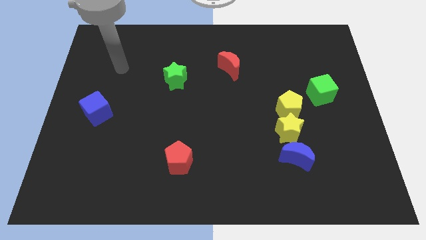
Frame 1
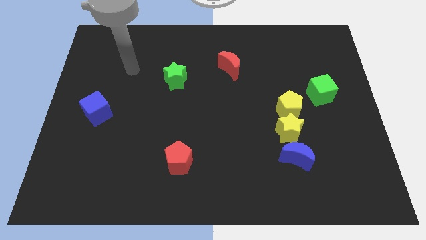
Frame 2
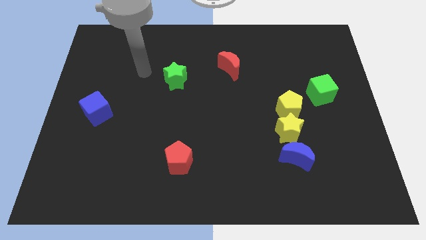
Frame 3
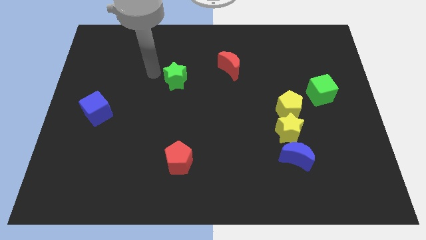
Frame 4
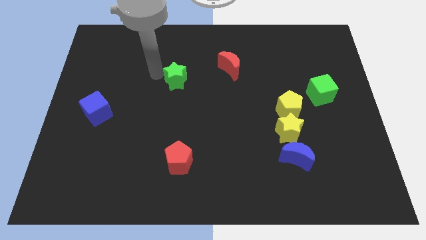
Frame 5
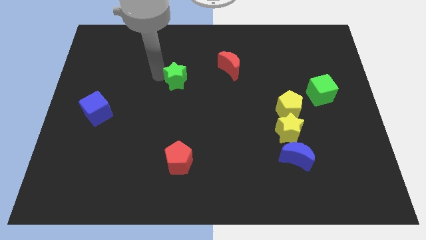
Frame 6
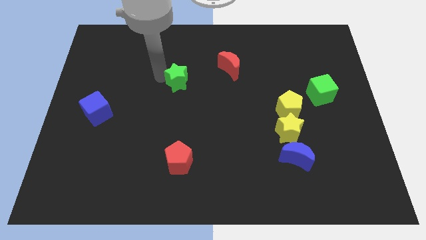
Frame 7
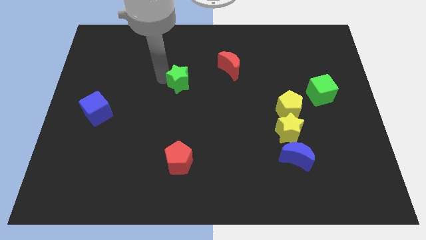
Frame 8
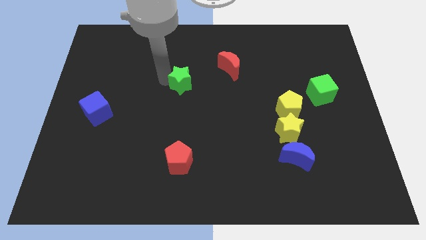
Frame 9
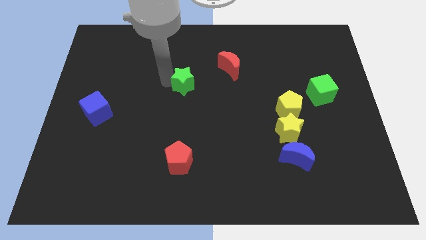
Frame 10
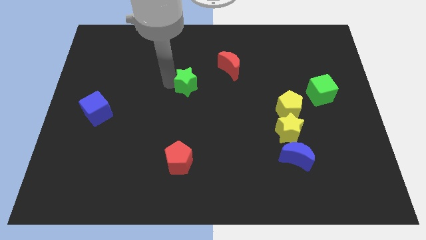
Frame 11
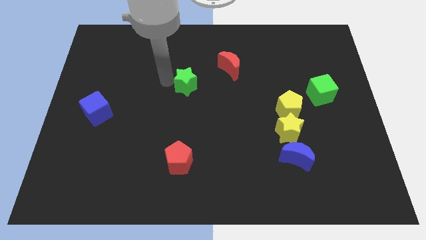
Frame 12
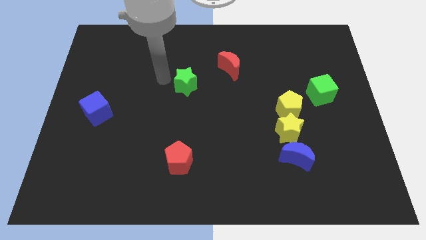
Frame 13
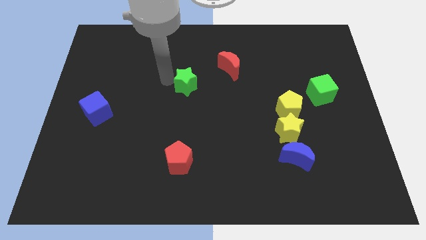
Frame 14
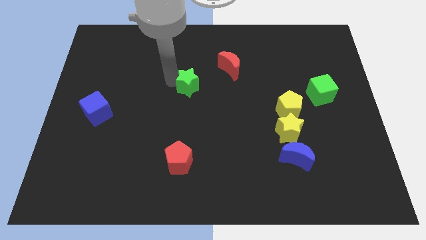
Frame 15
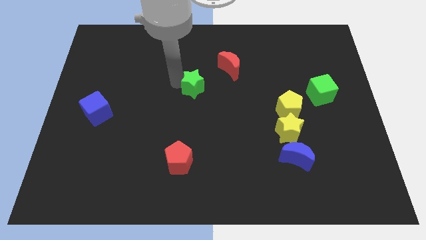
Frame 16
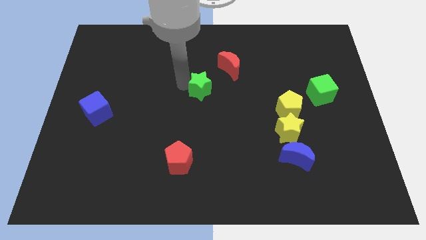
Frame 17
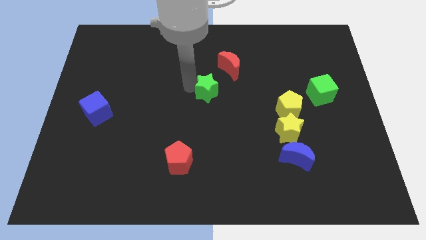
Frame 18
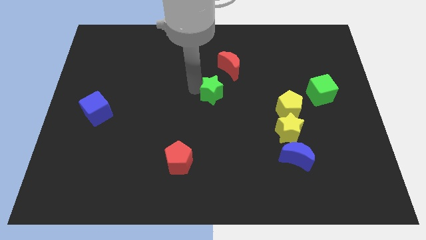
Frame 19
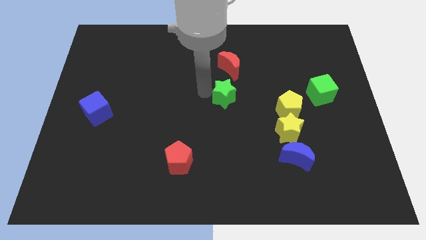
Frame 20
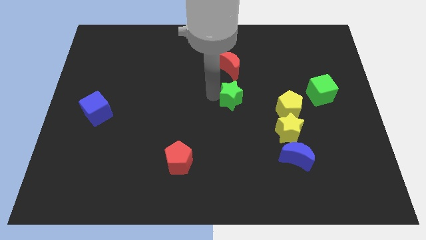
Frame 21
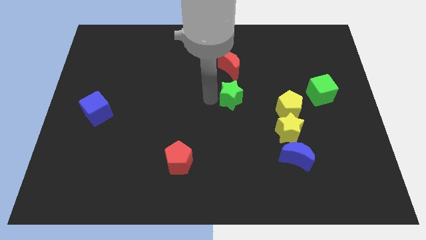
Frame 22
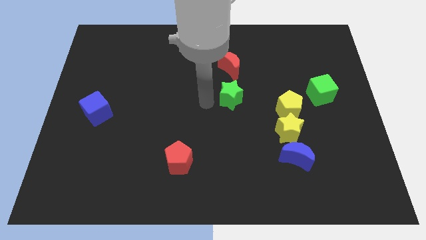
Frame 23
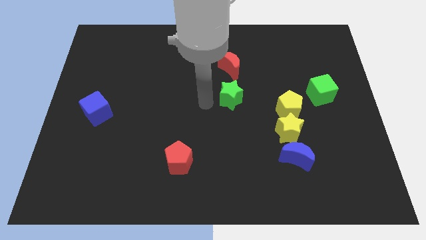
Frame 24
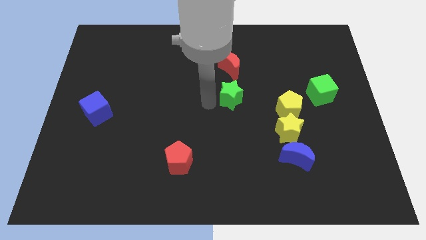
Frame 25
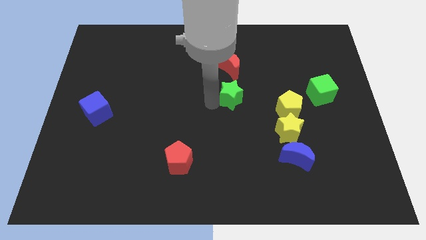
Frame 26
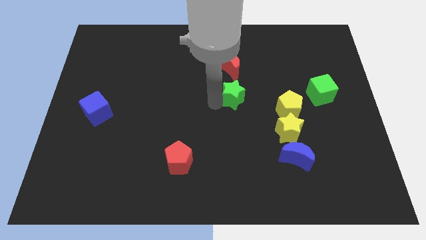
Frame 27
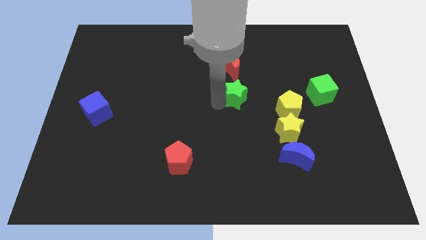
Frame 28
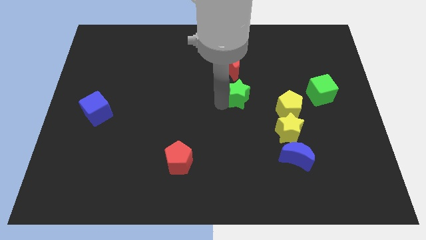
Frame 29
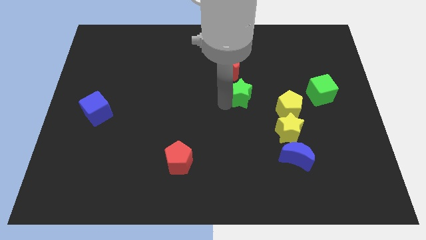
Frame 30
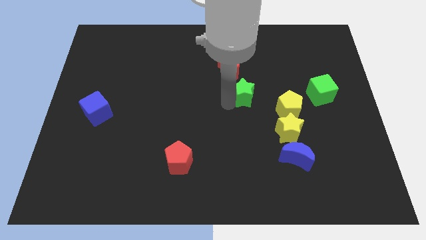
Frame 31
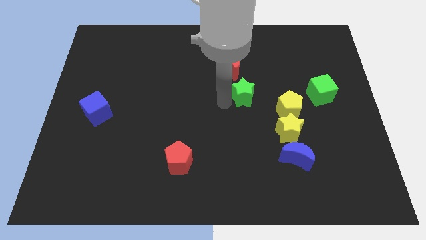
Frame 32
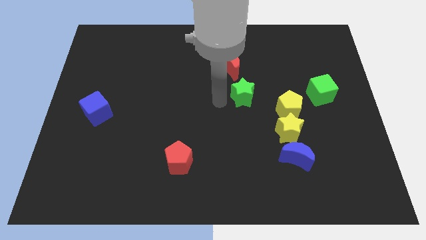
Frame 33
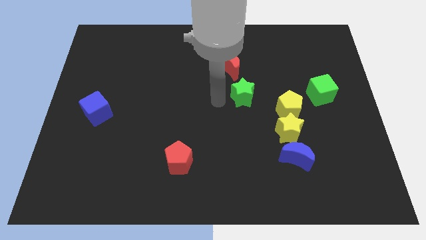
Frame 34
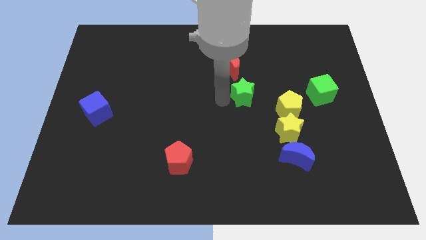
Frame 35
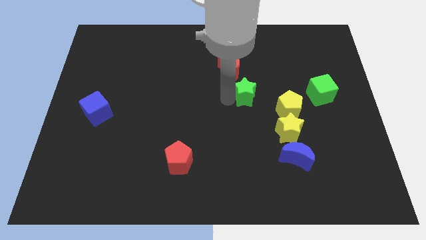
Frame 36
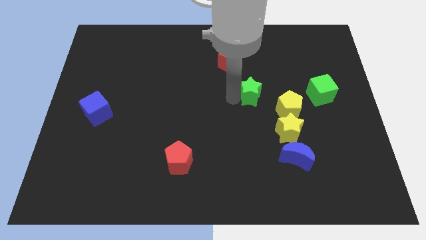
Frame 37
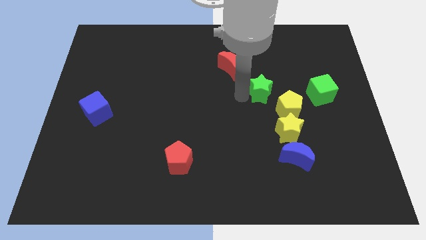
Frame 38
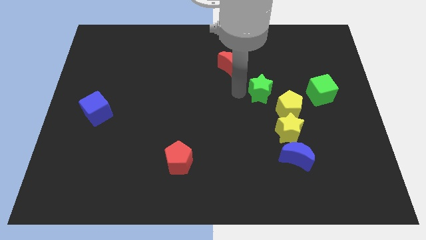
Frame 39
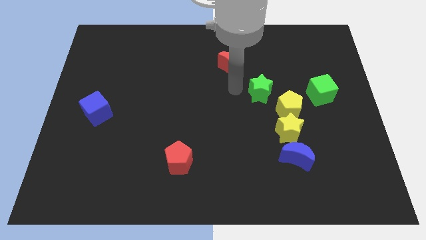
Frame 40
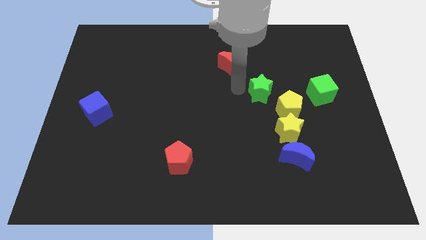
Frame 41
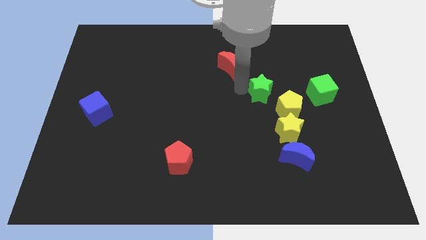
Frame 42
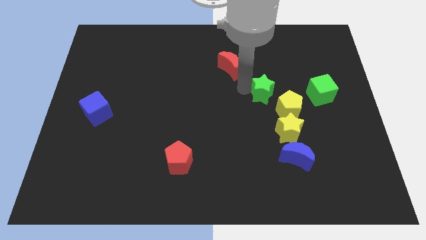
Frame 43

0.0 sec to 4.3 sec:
slide the green star above the yellow star

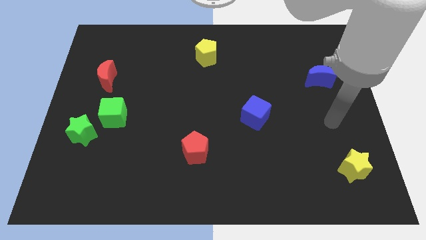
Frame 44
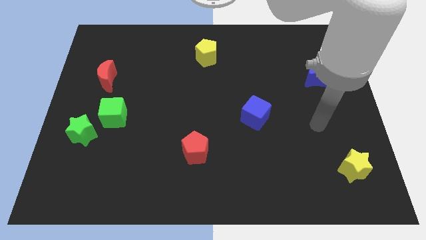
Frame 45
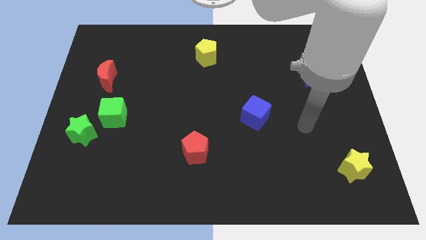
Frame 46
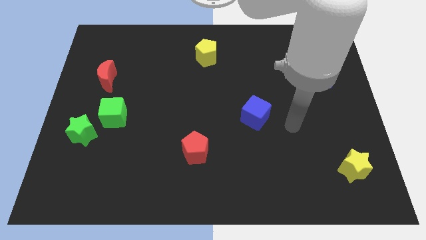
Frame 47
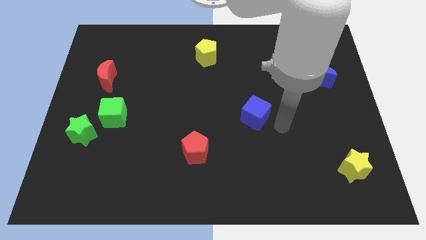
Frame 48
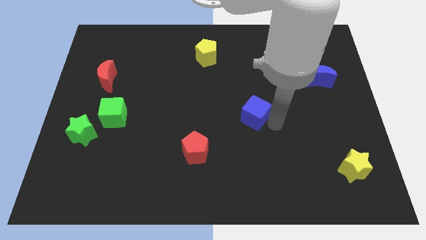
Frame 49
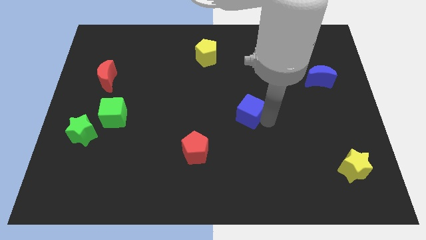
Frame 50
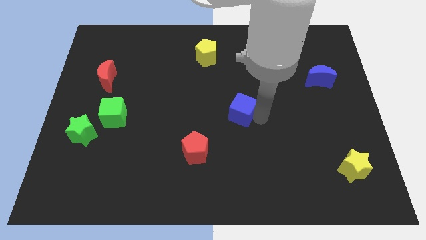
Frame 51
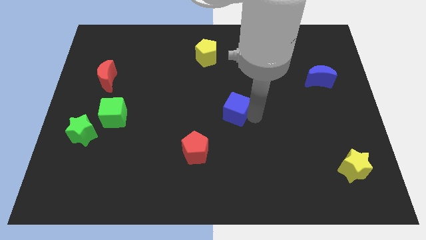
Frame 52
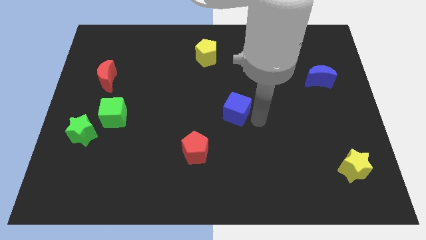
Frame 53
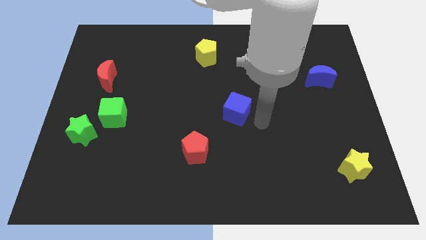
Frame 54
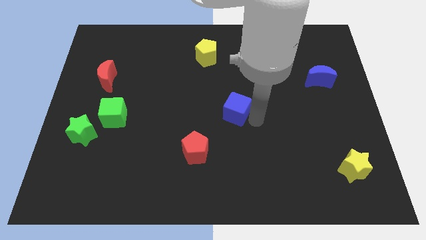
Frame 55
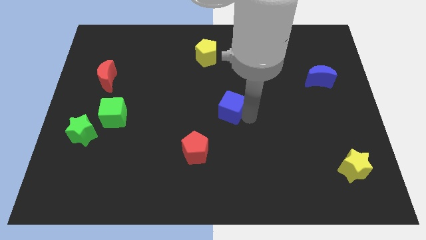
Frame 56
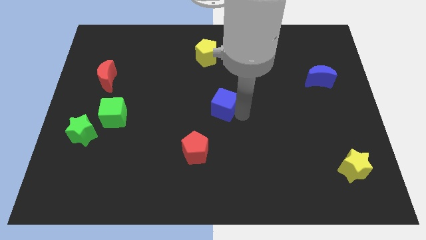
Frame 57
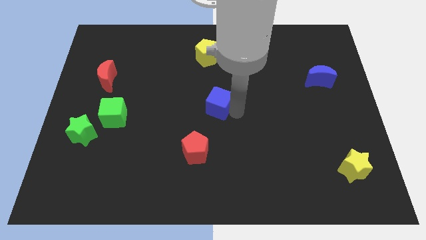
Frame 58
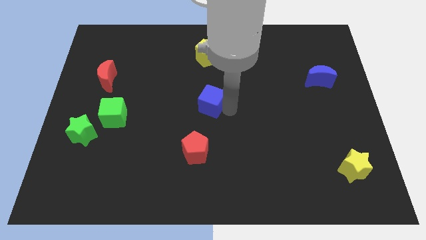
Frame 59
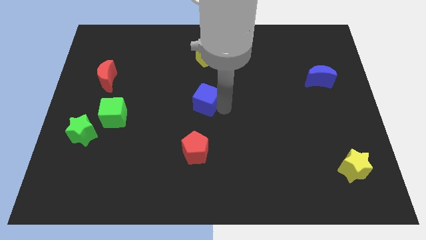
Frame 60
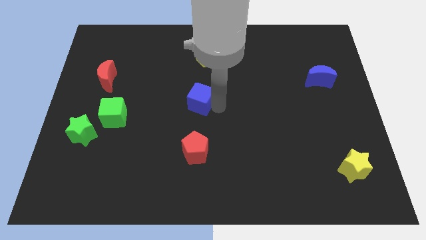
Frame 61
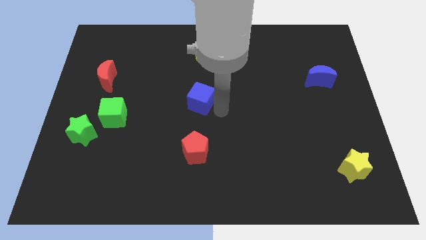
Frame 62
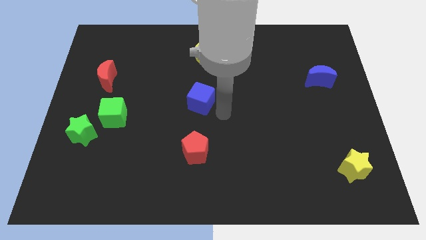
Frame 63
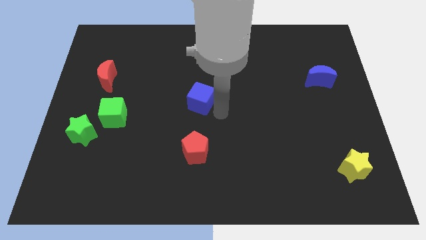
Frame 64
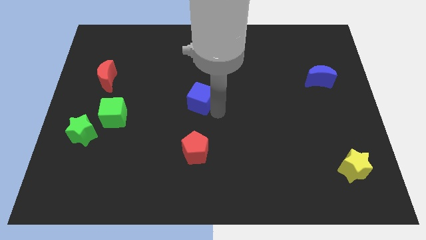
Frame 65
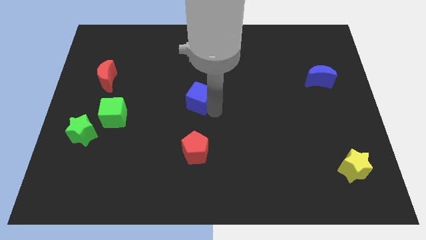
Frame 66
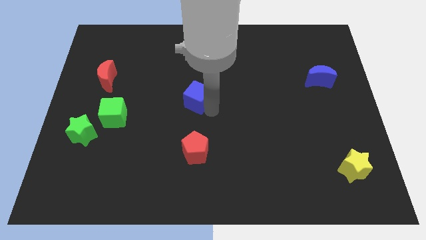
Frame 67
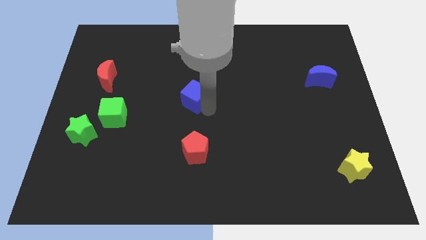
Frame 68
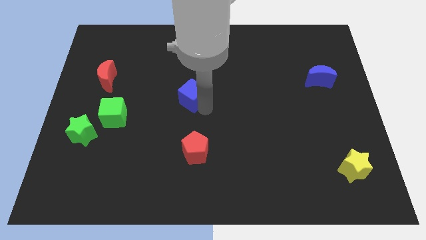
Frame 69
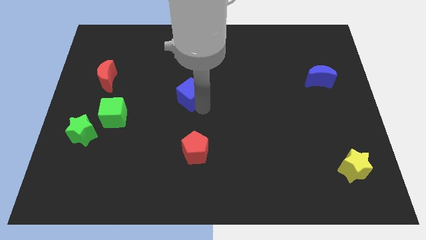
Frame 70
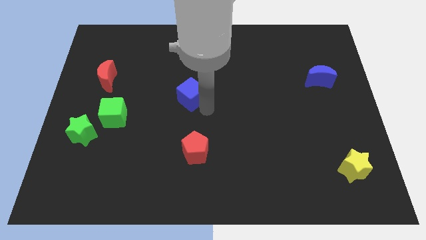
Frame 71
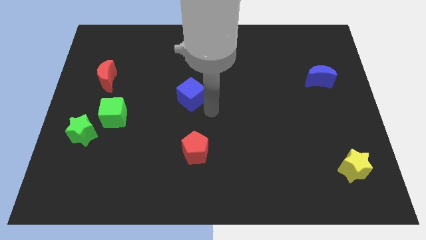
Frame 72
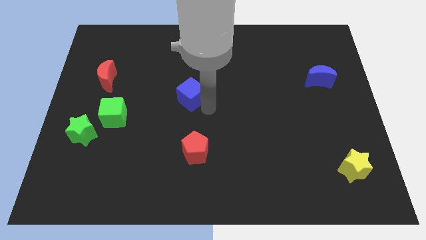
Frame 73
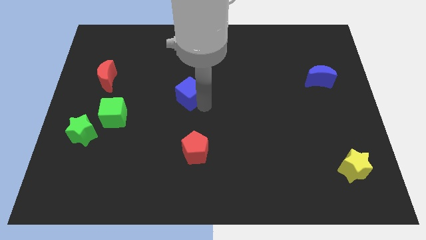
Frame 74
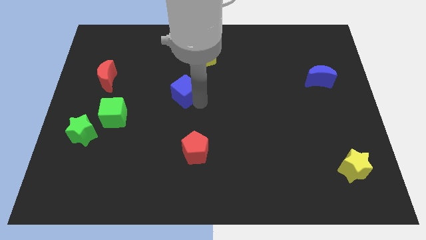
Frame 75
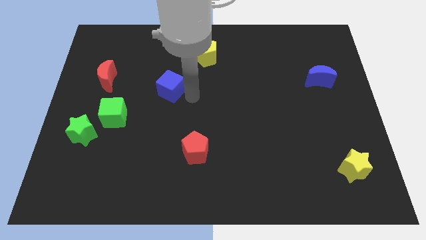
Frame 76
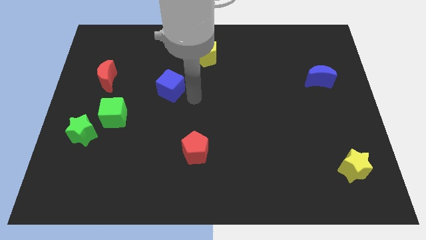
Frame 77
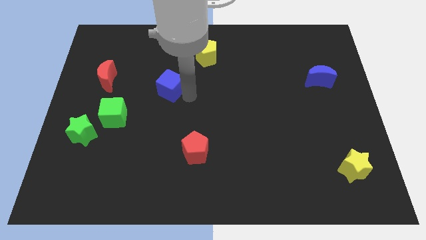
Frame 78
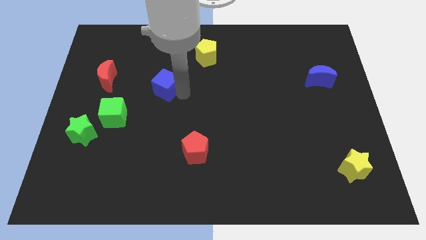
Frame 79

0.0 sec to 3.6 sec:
put the blue cube right of the red moon
